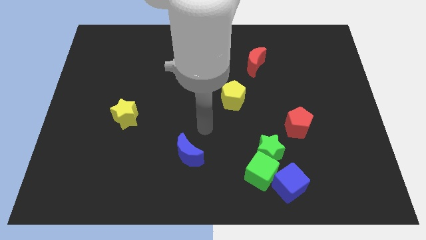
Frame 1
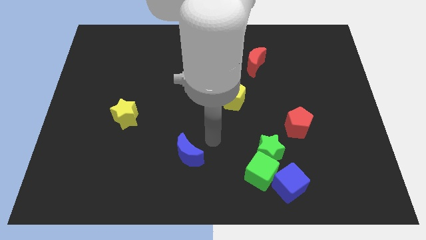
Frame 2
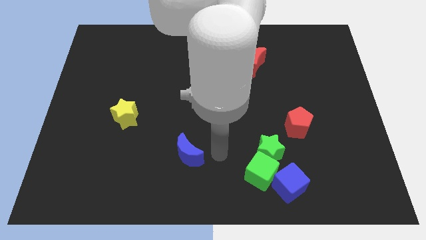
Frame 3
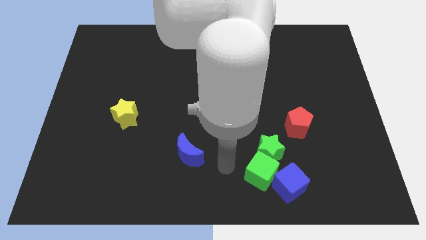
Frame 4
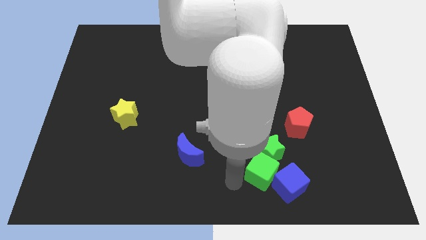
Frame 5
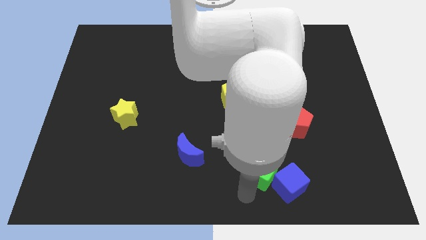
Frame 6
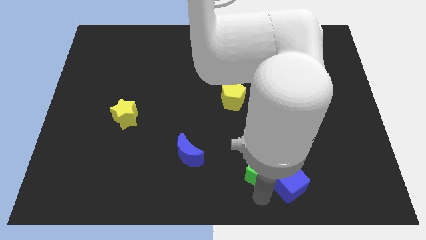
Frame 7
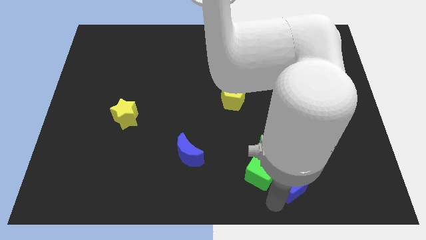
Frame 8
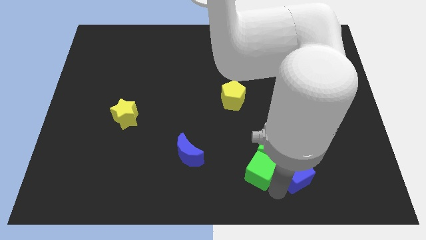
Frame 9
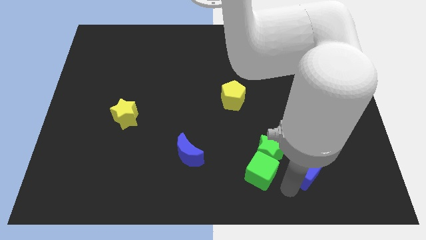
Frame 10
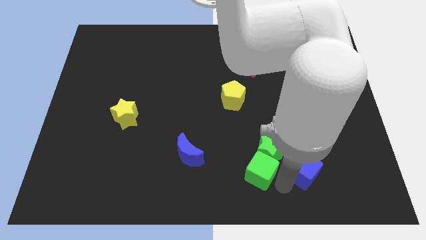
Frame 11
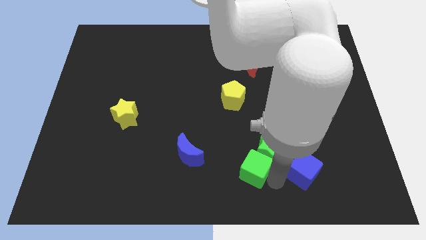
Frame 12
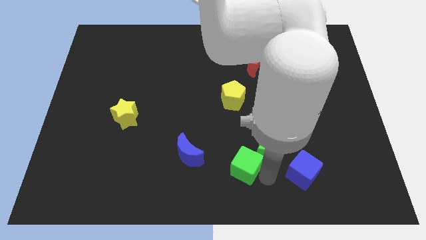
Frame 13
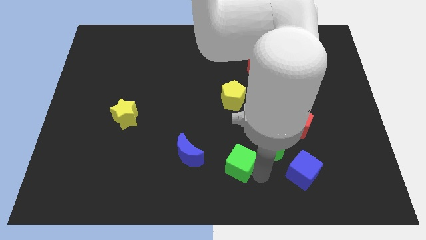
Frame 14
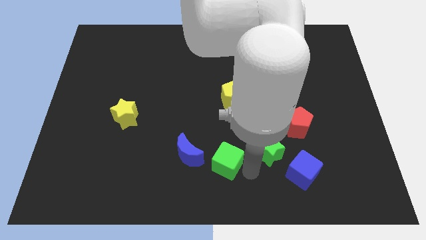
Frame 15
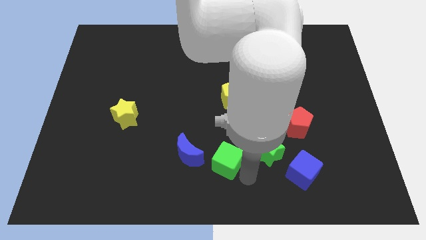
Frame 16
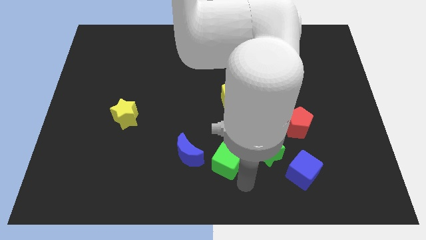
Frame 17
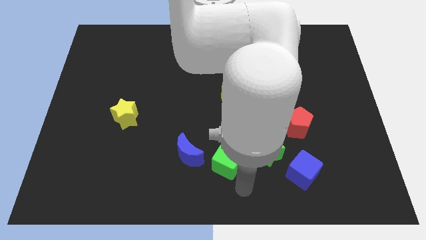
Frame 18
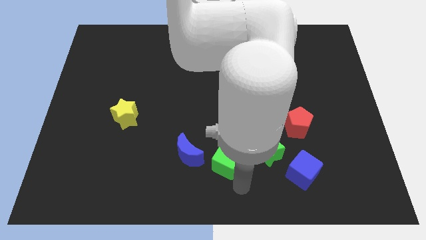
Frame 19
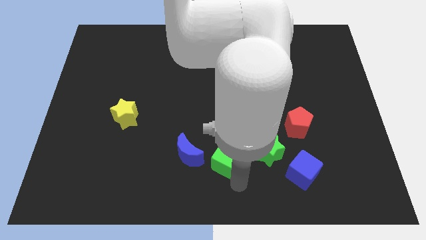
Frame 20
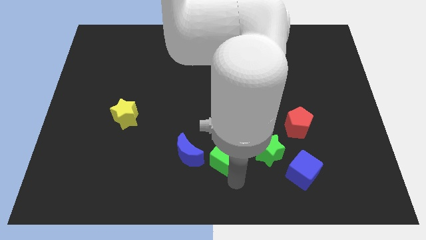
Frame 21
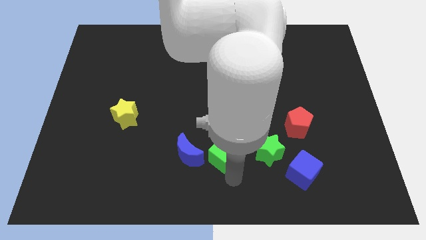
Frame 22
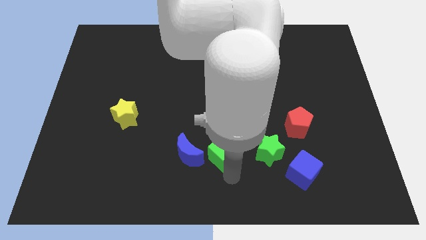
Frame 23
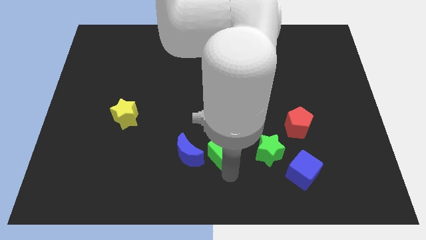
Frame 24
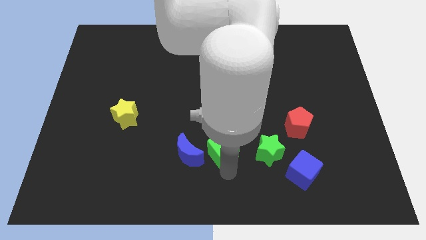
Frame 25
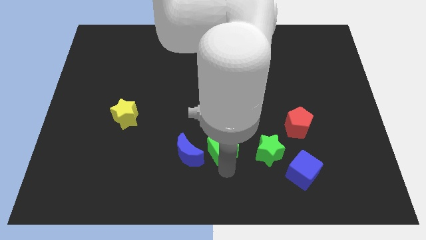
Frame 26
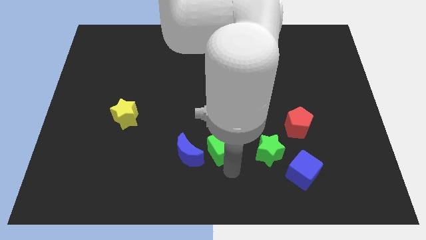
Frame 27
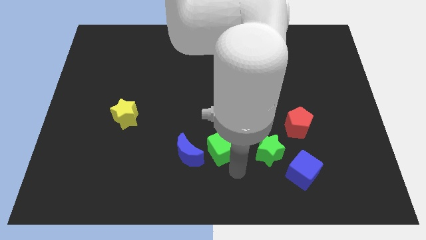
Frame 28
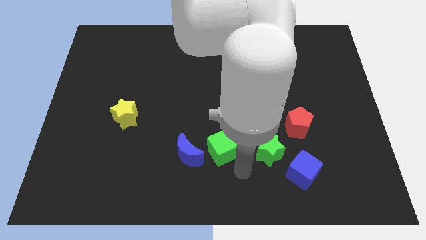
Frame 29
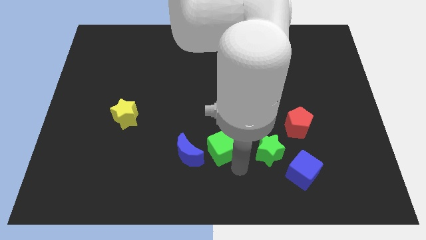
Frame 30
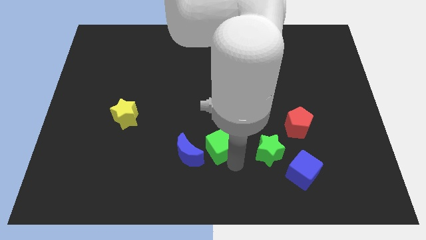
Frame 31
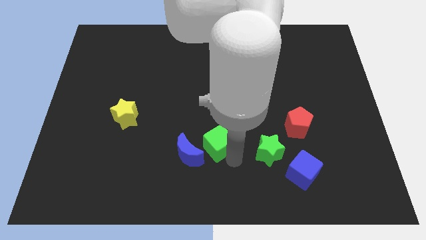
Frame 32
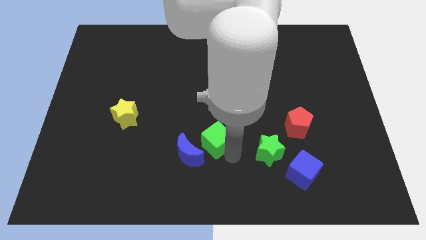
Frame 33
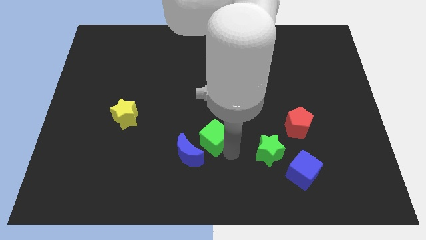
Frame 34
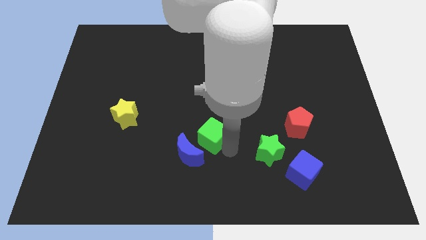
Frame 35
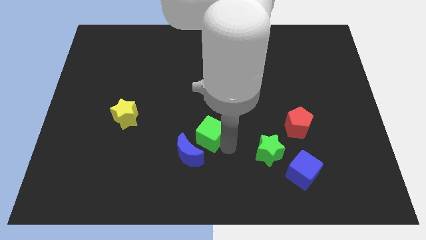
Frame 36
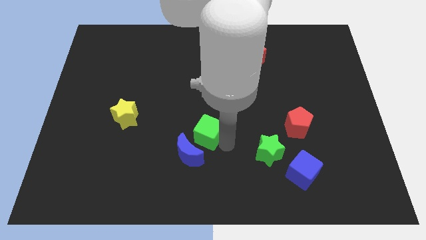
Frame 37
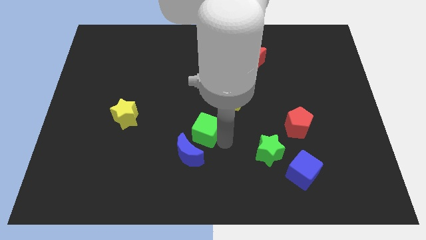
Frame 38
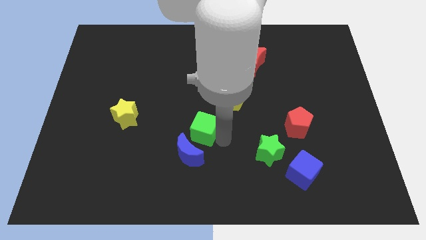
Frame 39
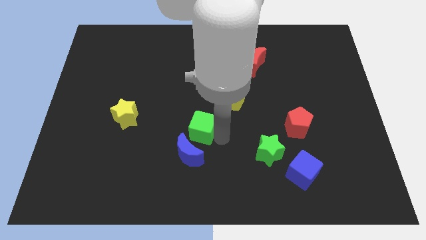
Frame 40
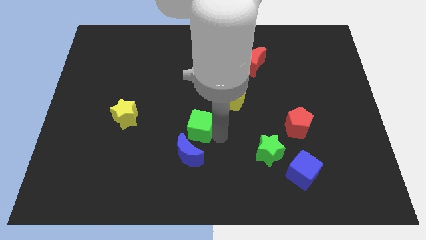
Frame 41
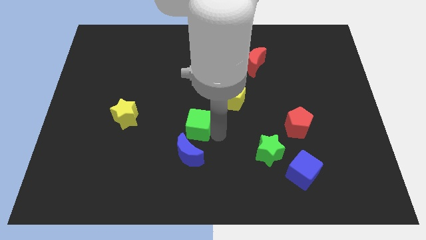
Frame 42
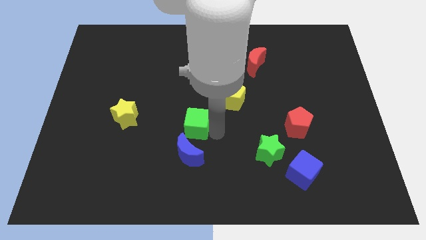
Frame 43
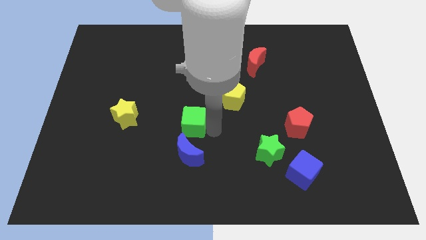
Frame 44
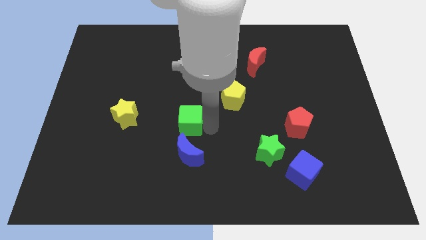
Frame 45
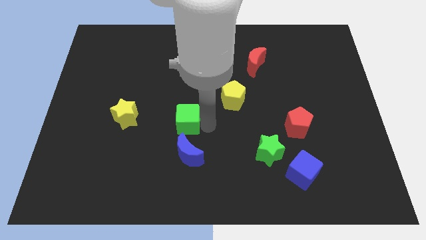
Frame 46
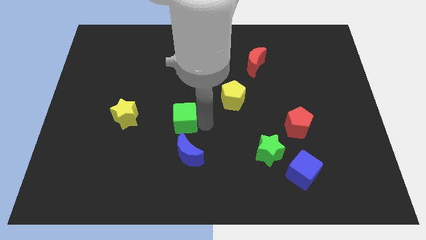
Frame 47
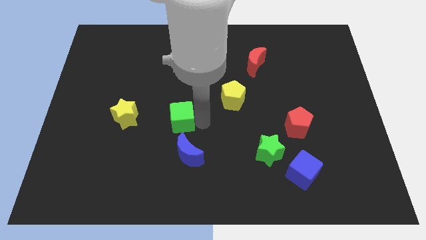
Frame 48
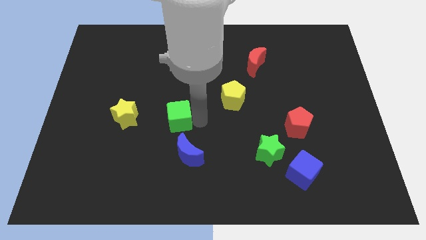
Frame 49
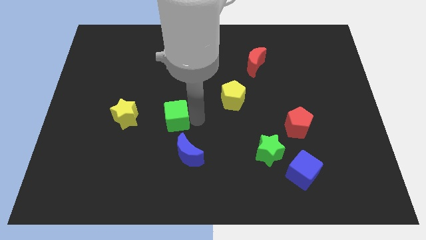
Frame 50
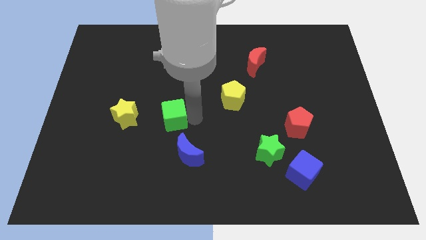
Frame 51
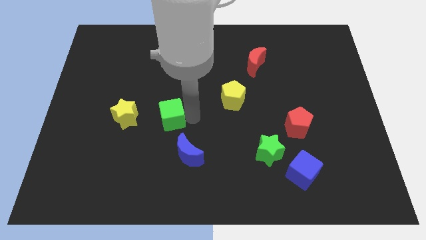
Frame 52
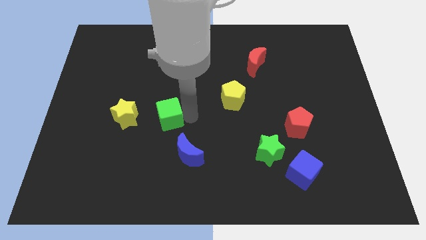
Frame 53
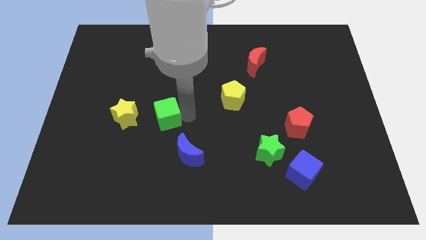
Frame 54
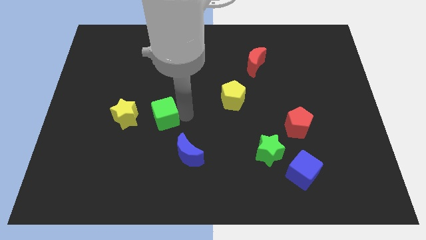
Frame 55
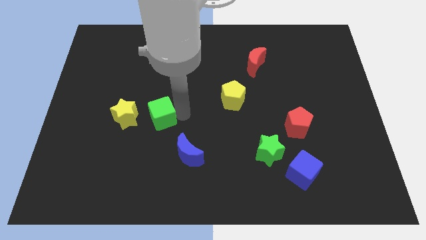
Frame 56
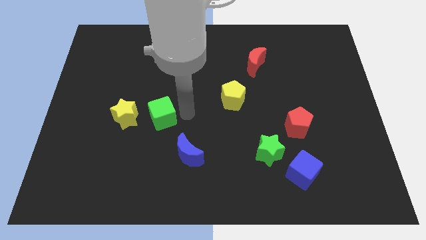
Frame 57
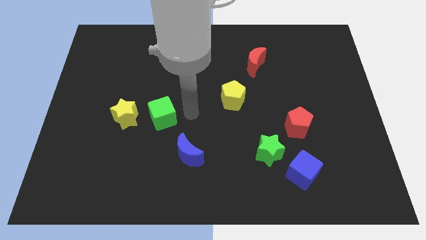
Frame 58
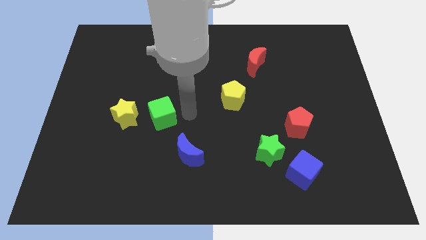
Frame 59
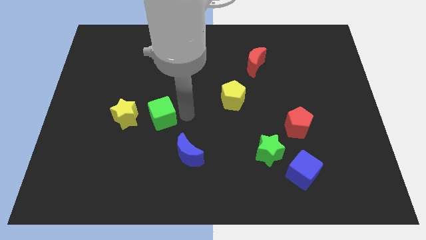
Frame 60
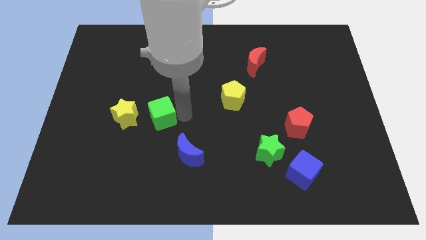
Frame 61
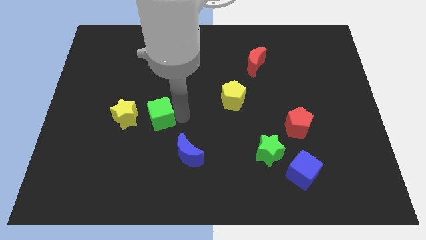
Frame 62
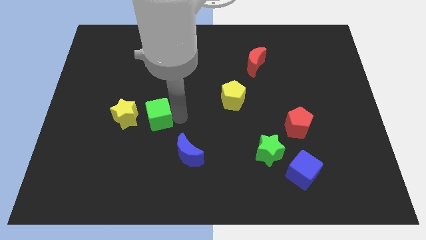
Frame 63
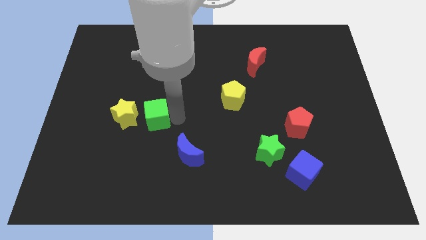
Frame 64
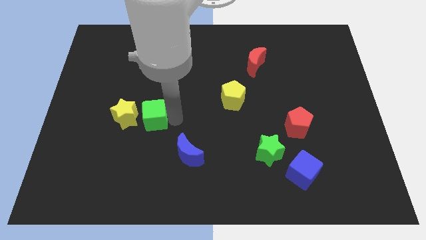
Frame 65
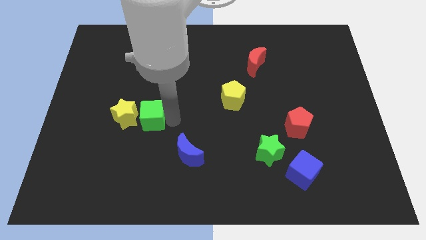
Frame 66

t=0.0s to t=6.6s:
slide the green cube to the yellow star
